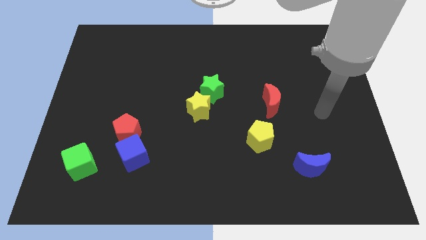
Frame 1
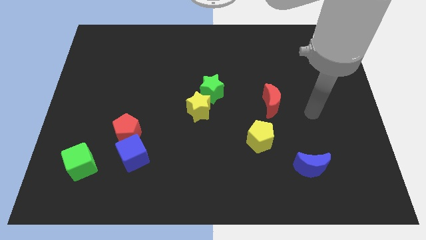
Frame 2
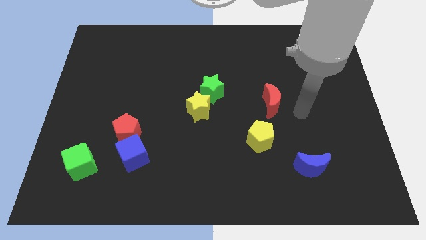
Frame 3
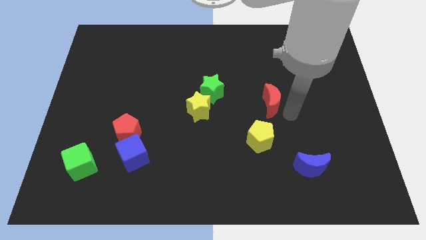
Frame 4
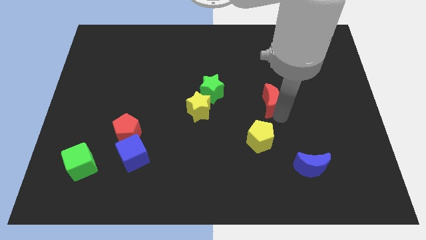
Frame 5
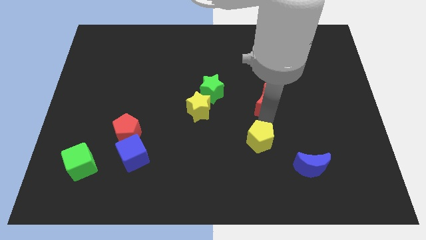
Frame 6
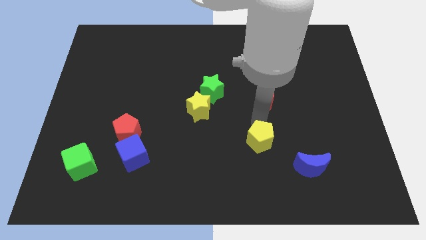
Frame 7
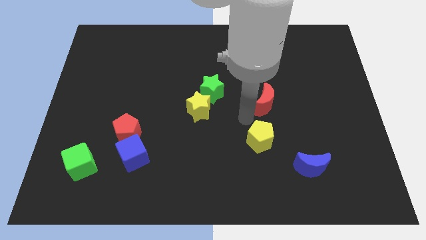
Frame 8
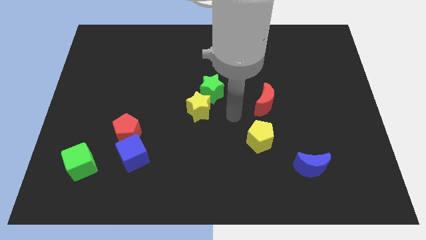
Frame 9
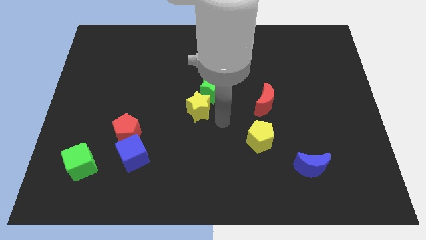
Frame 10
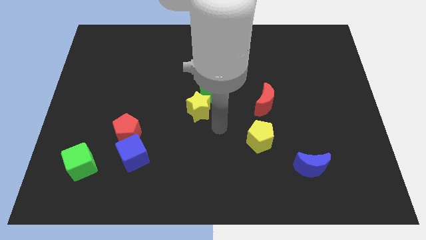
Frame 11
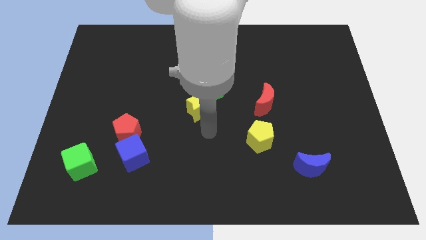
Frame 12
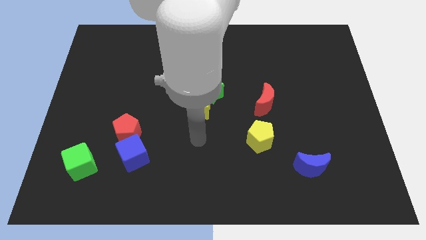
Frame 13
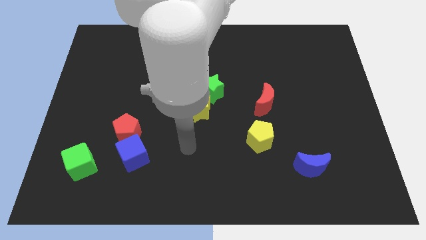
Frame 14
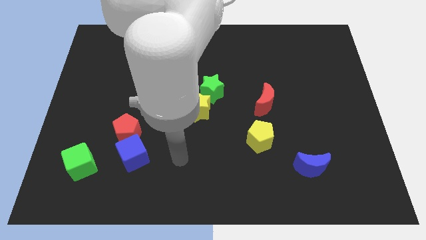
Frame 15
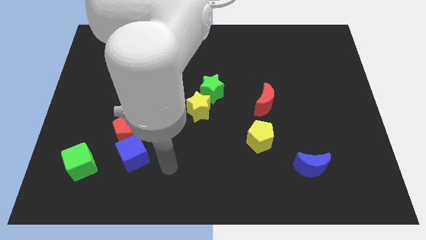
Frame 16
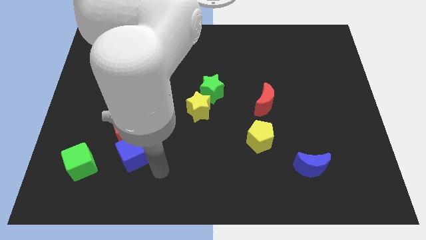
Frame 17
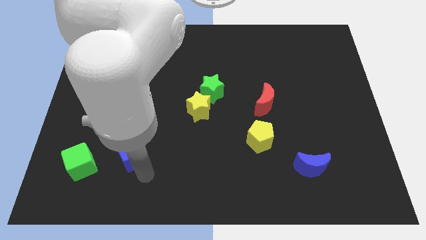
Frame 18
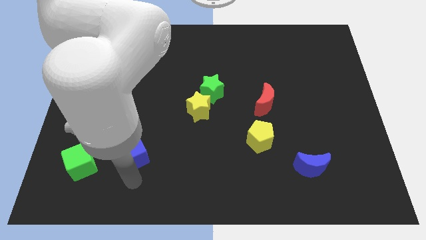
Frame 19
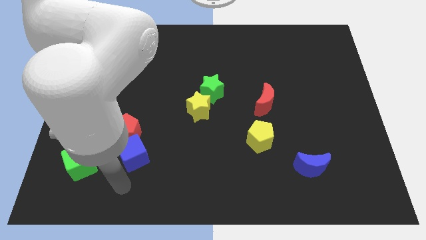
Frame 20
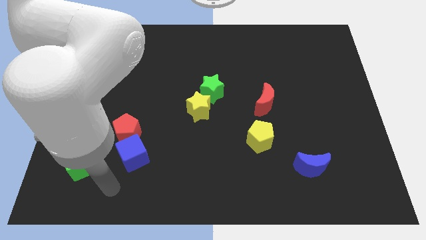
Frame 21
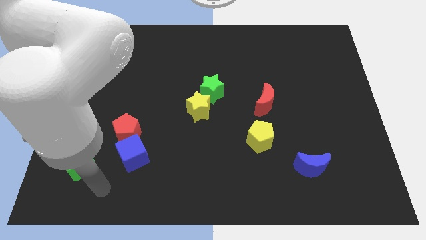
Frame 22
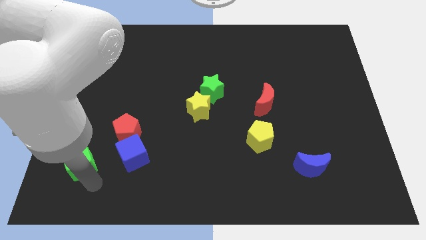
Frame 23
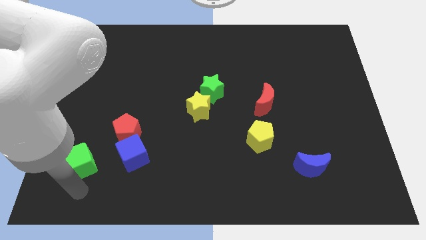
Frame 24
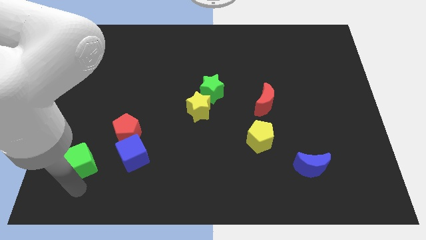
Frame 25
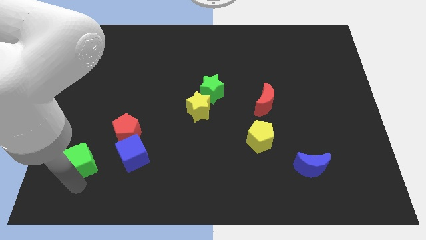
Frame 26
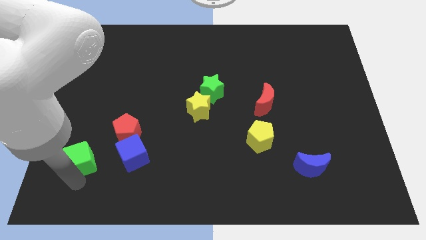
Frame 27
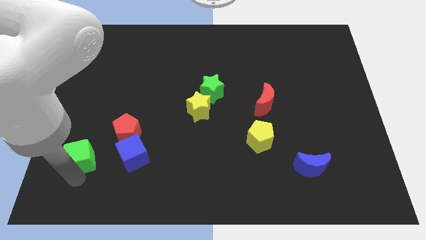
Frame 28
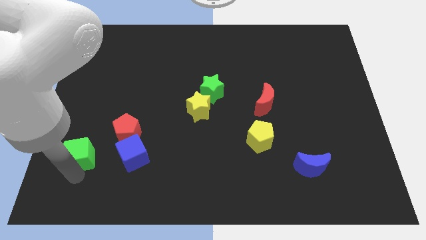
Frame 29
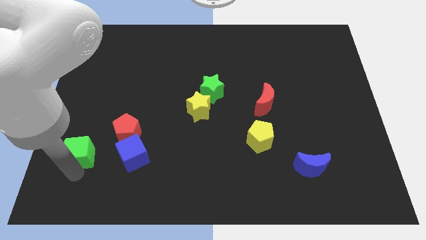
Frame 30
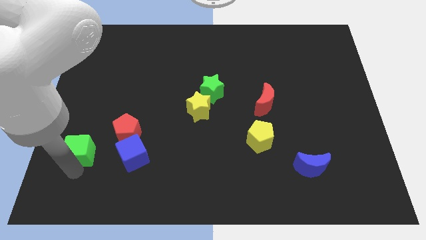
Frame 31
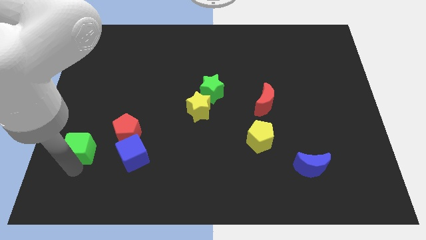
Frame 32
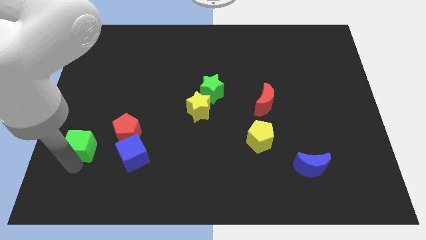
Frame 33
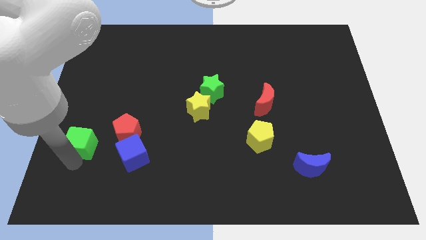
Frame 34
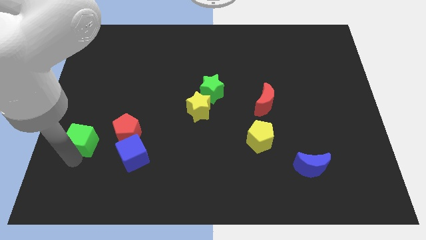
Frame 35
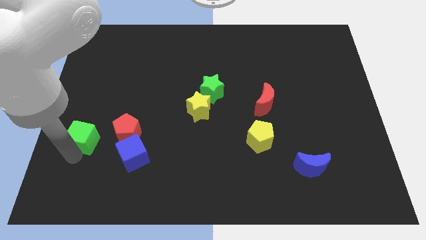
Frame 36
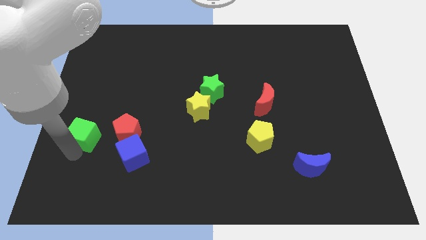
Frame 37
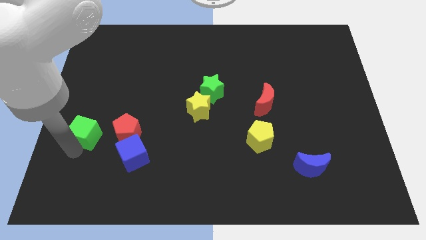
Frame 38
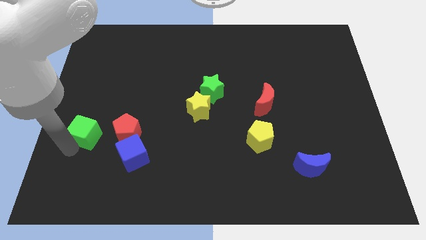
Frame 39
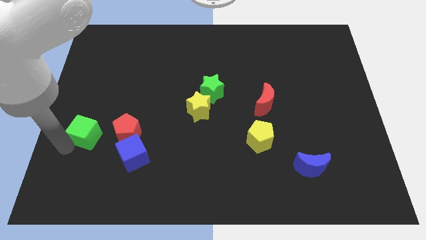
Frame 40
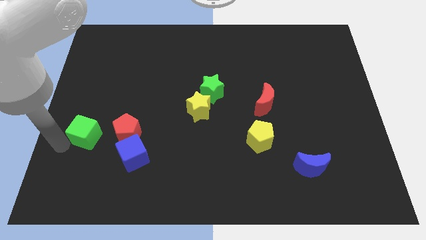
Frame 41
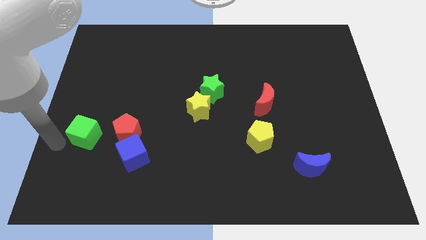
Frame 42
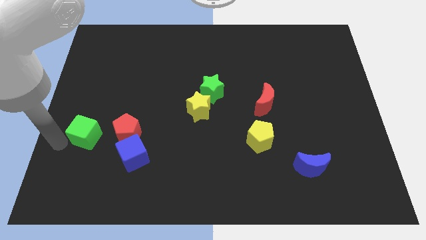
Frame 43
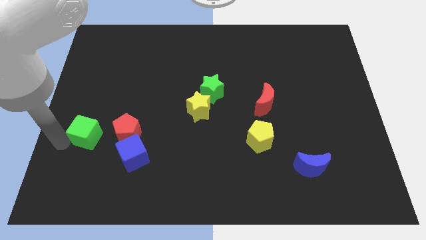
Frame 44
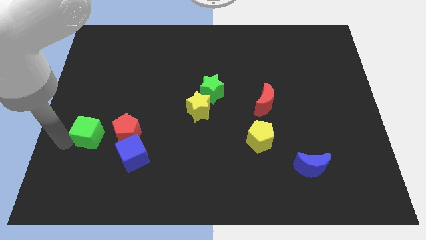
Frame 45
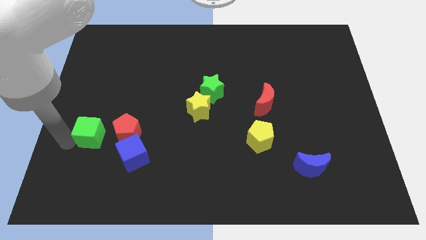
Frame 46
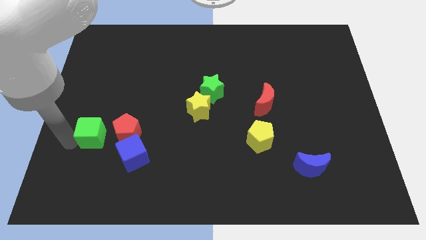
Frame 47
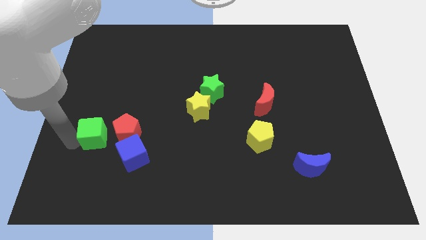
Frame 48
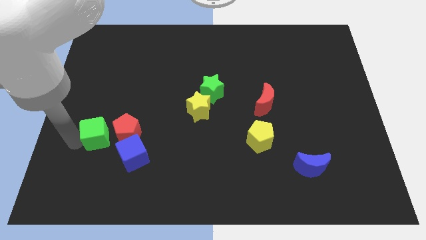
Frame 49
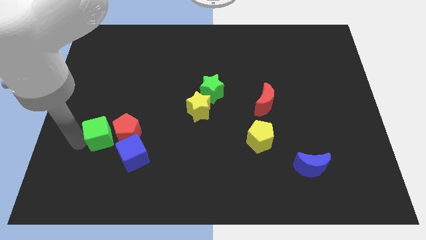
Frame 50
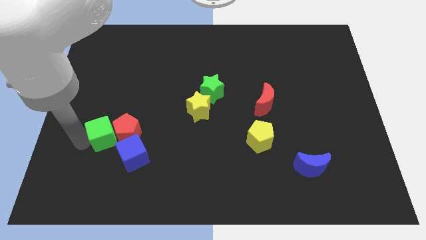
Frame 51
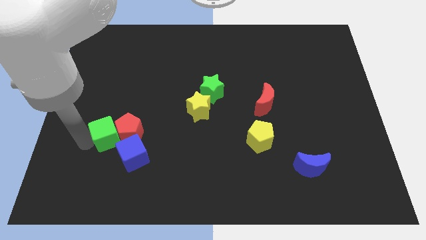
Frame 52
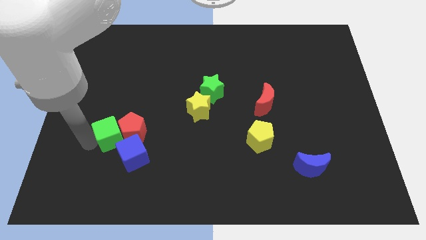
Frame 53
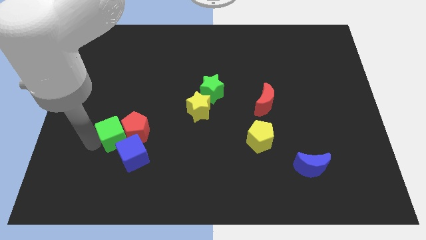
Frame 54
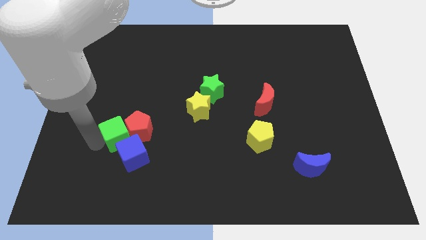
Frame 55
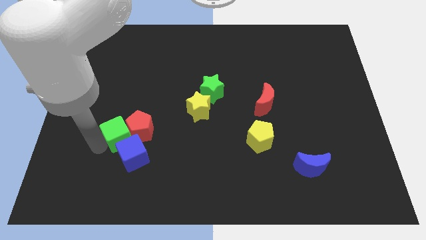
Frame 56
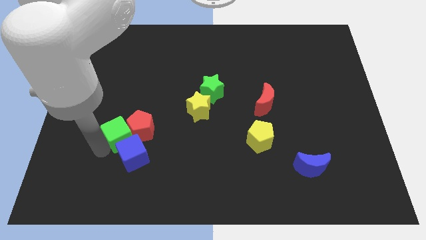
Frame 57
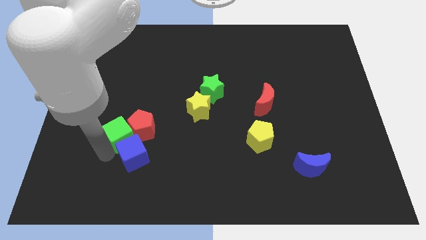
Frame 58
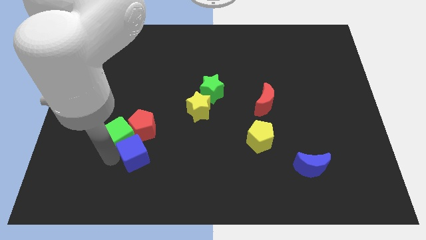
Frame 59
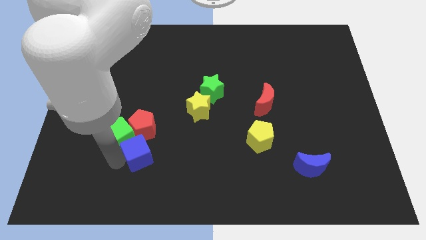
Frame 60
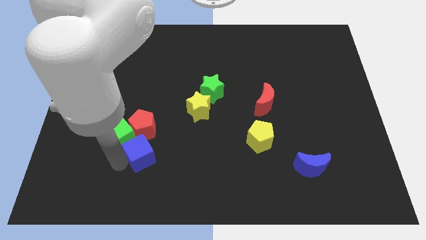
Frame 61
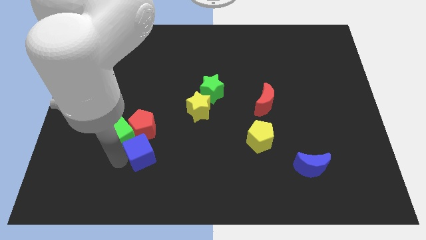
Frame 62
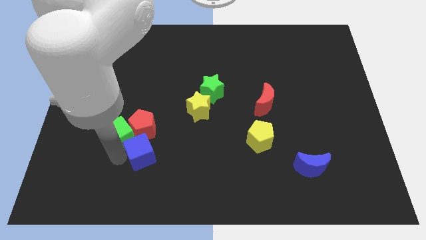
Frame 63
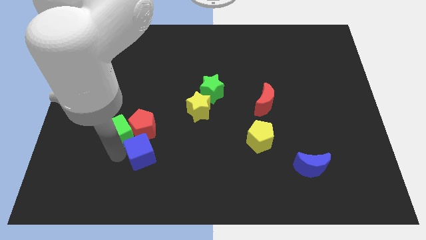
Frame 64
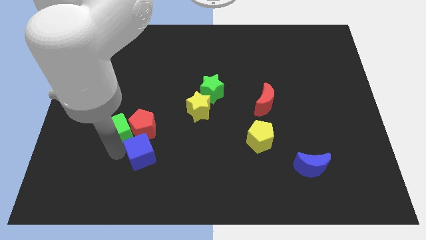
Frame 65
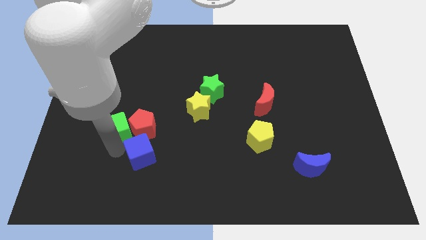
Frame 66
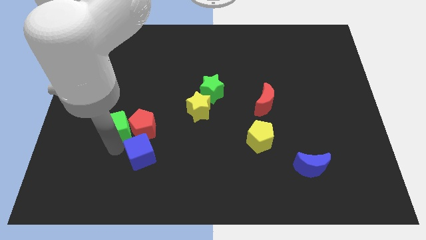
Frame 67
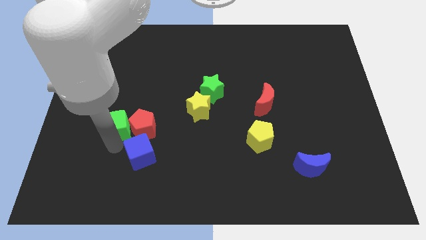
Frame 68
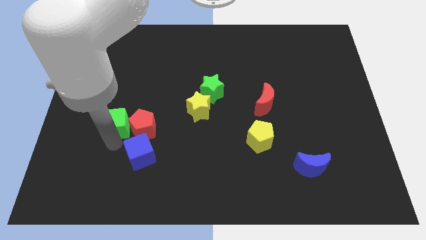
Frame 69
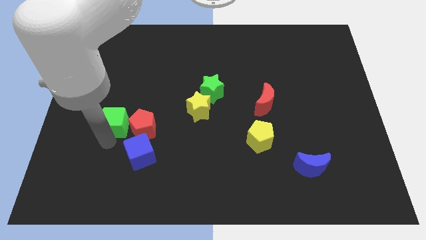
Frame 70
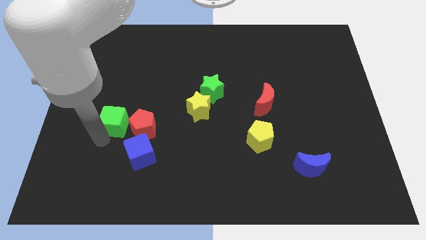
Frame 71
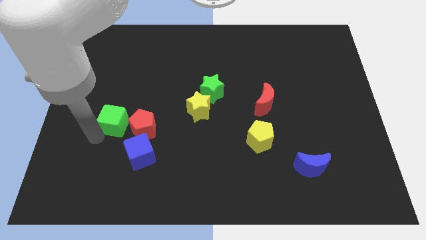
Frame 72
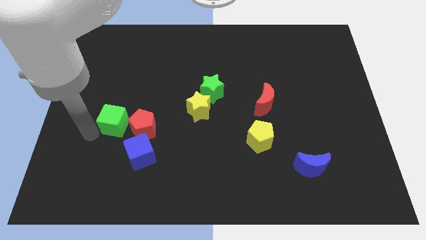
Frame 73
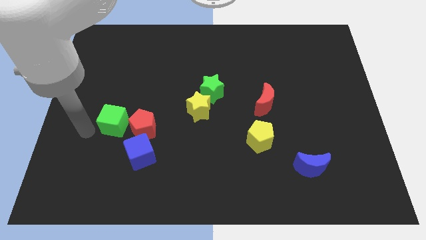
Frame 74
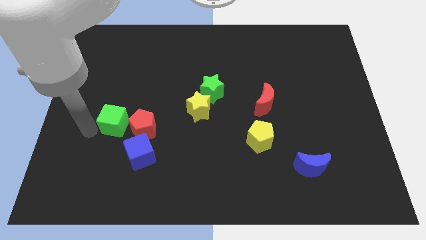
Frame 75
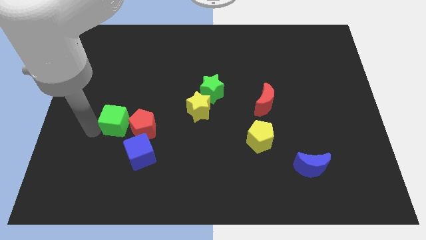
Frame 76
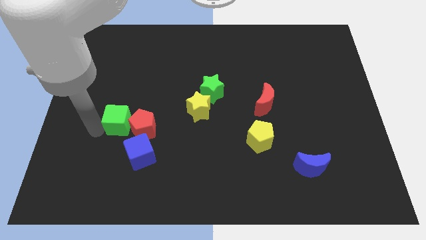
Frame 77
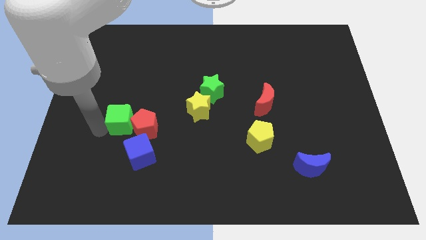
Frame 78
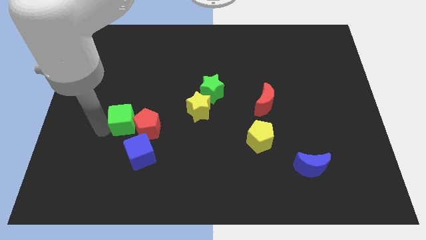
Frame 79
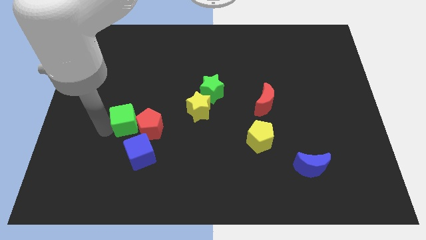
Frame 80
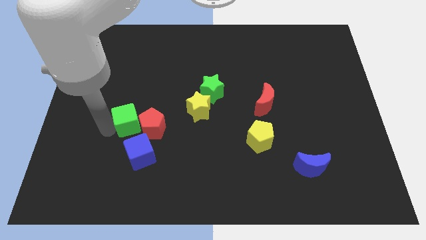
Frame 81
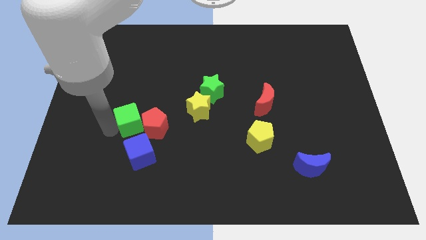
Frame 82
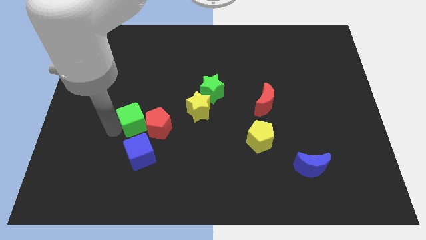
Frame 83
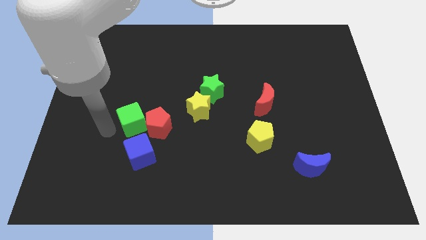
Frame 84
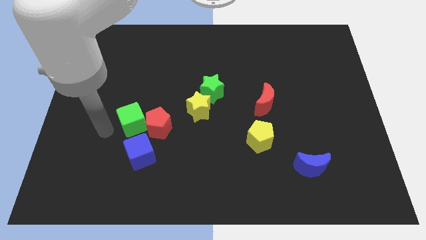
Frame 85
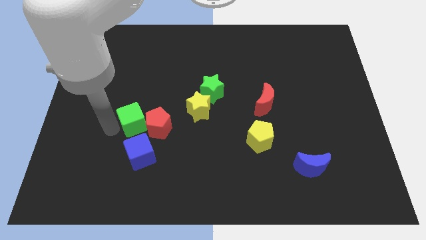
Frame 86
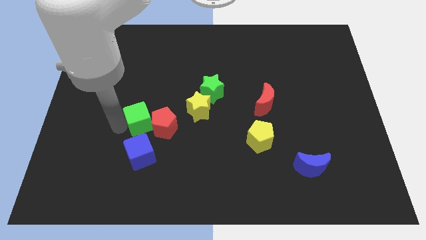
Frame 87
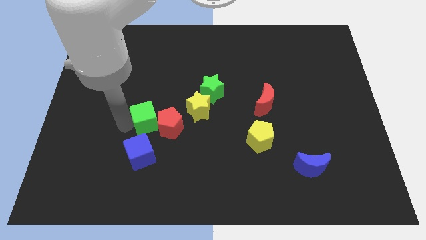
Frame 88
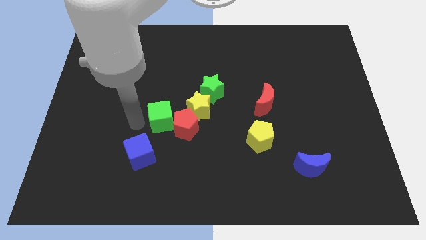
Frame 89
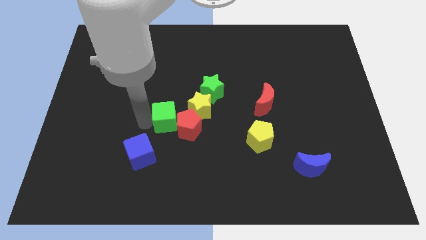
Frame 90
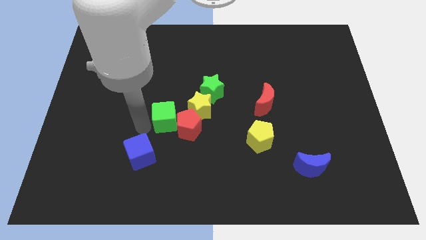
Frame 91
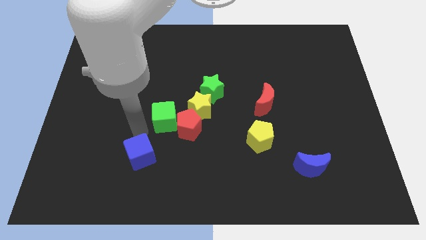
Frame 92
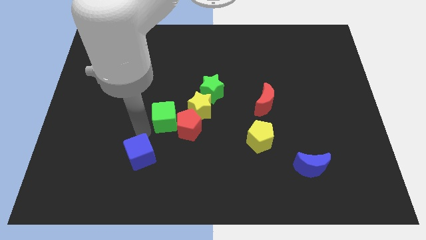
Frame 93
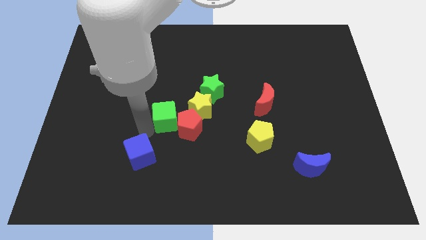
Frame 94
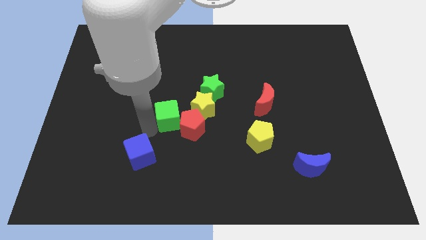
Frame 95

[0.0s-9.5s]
put the green cube to the bottom left side of the green star
